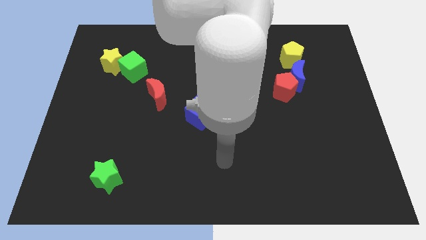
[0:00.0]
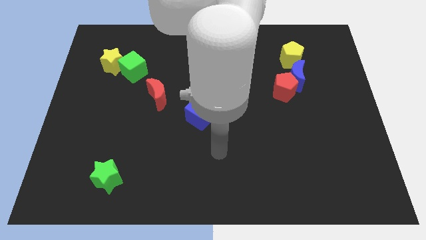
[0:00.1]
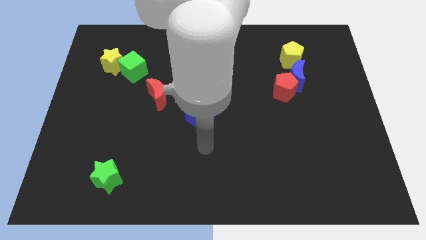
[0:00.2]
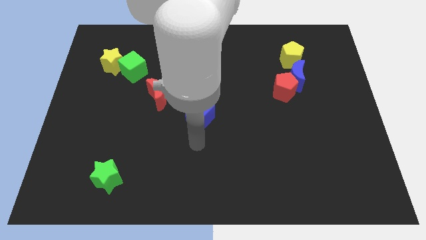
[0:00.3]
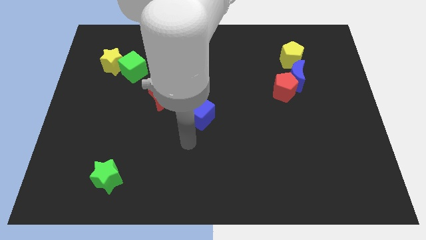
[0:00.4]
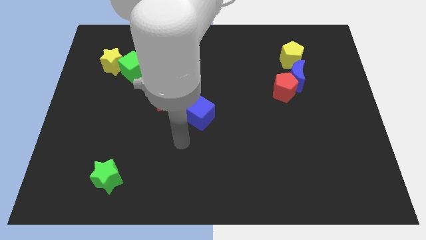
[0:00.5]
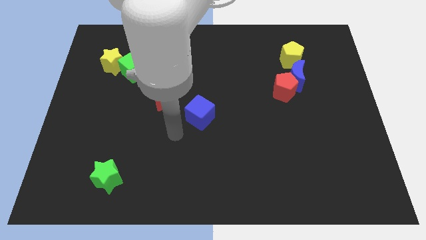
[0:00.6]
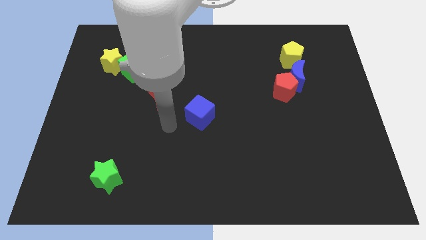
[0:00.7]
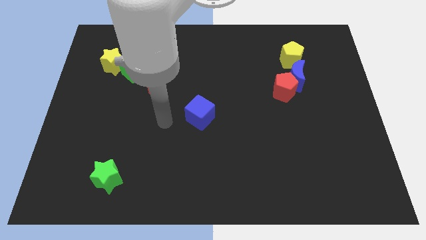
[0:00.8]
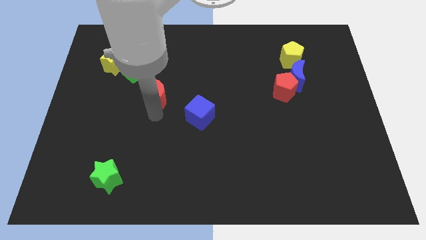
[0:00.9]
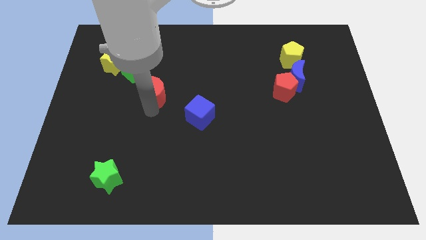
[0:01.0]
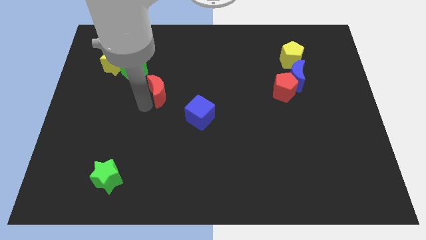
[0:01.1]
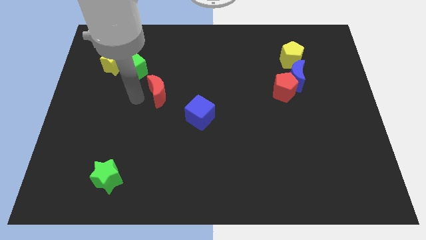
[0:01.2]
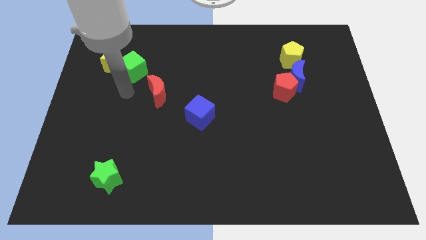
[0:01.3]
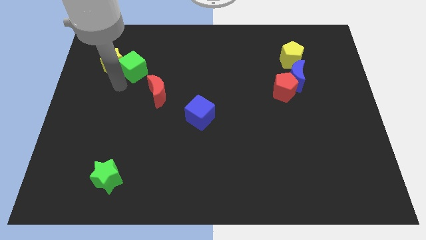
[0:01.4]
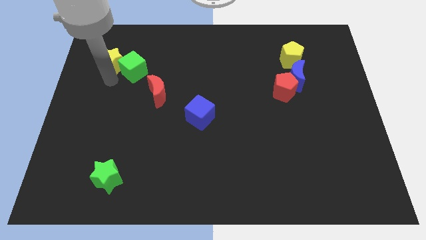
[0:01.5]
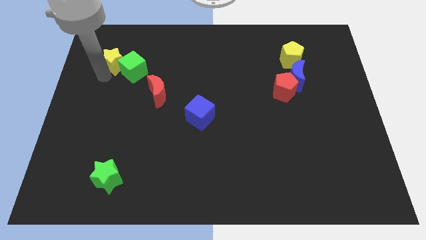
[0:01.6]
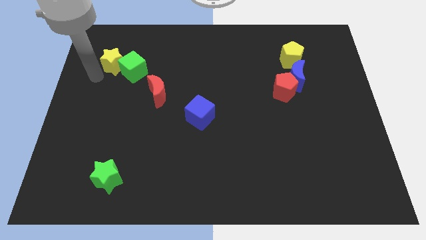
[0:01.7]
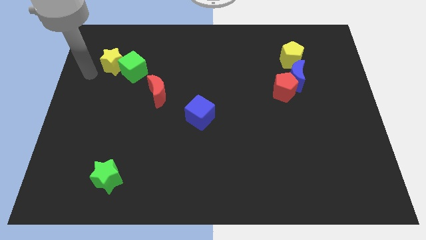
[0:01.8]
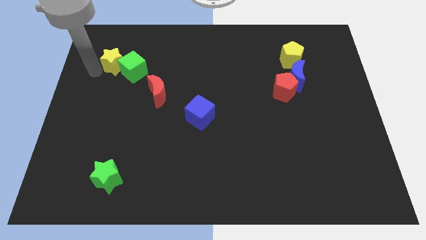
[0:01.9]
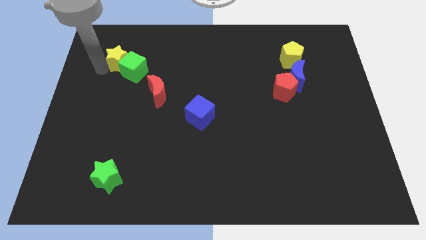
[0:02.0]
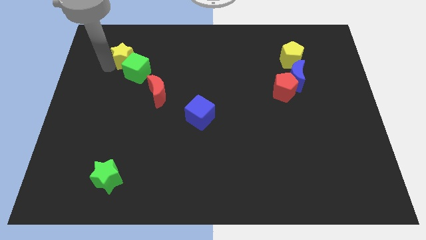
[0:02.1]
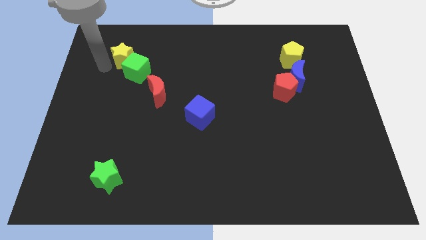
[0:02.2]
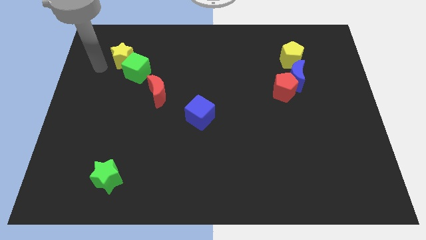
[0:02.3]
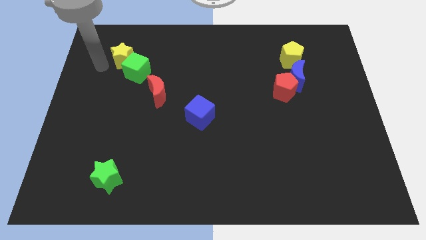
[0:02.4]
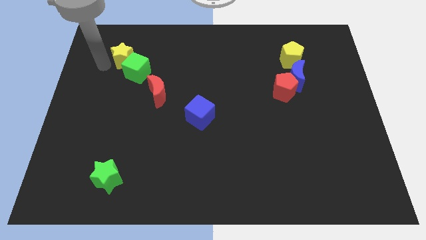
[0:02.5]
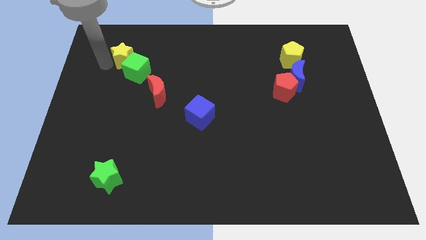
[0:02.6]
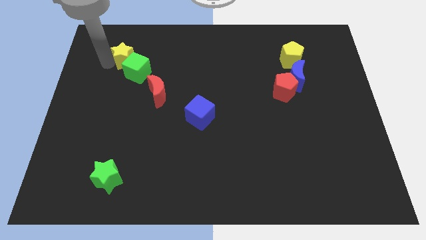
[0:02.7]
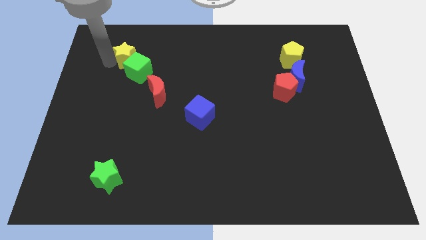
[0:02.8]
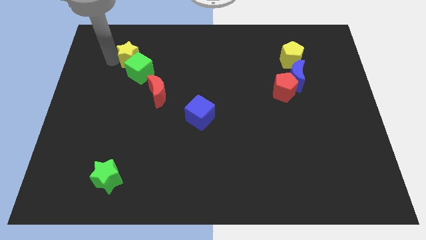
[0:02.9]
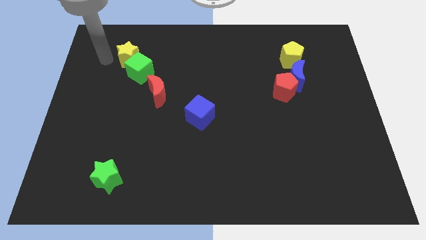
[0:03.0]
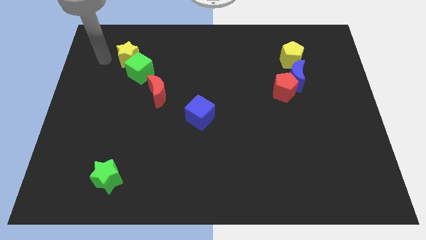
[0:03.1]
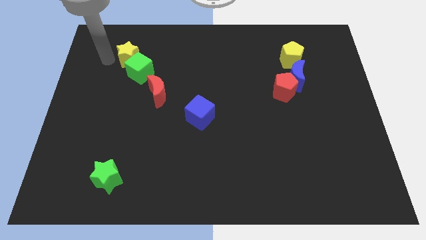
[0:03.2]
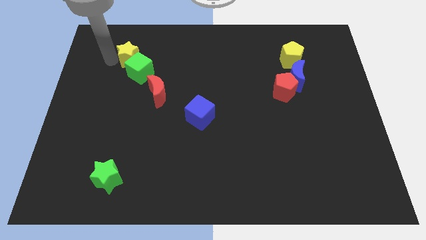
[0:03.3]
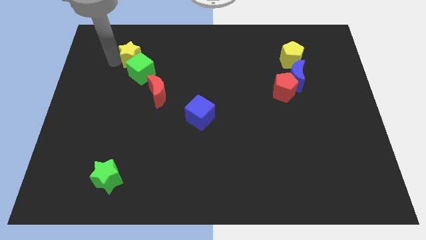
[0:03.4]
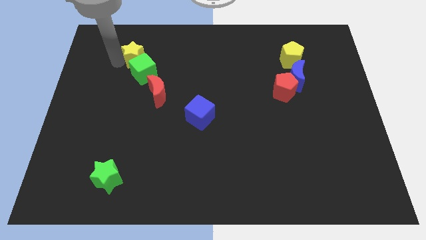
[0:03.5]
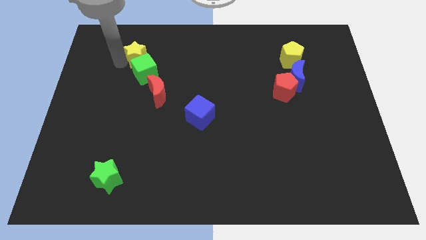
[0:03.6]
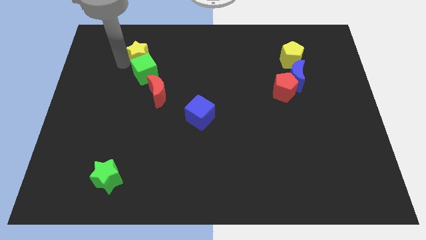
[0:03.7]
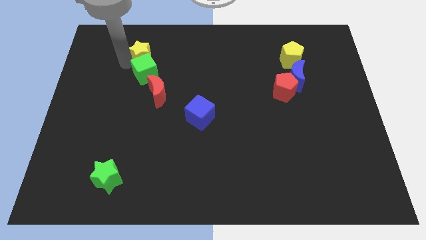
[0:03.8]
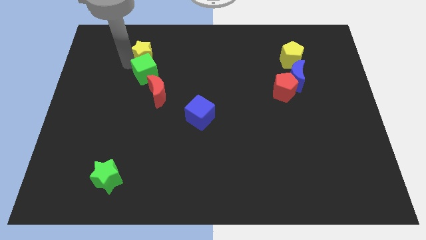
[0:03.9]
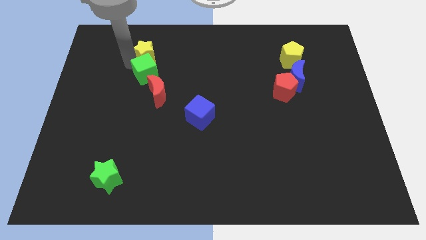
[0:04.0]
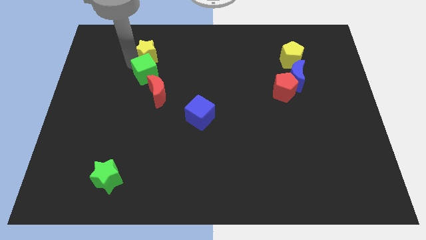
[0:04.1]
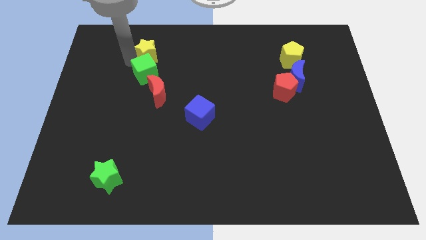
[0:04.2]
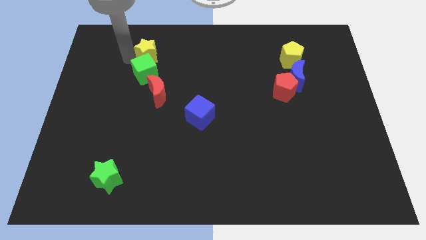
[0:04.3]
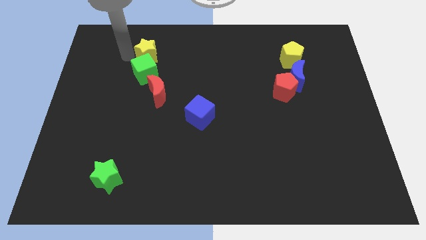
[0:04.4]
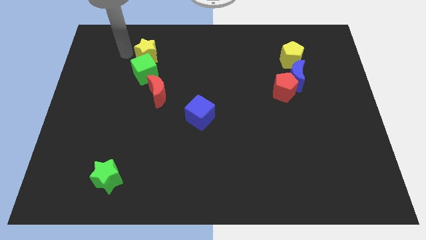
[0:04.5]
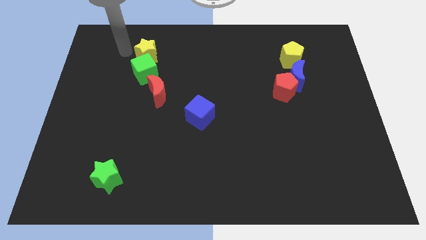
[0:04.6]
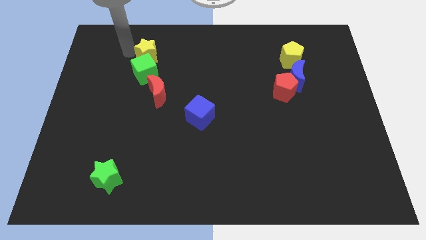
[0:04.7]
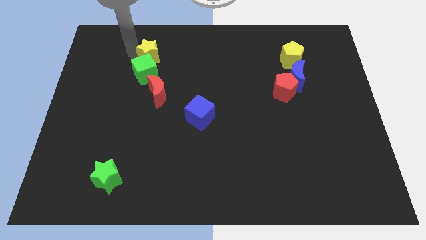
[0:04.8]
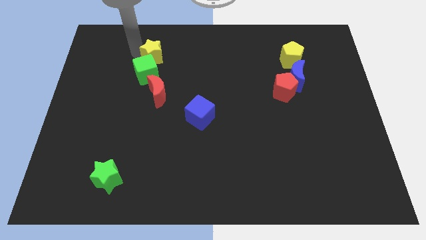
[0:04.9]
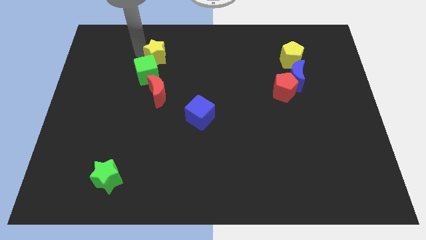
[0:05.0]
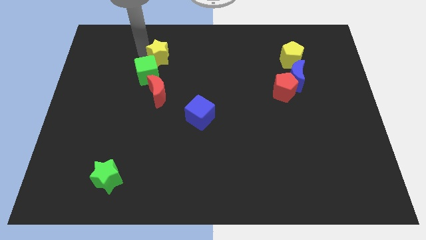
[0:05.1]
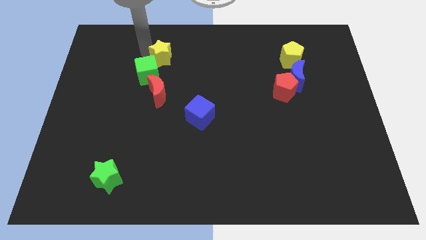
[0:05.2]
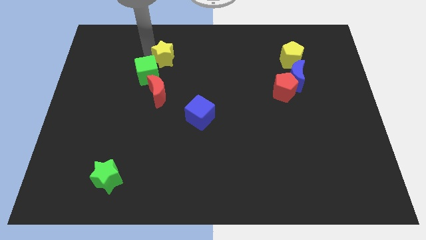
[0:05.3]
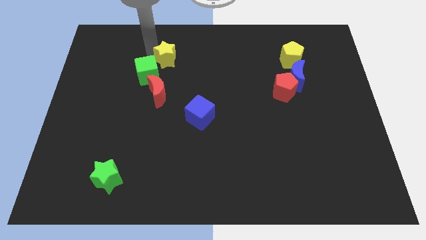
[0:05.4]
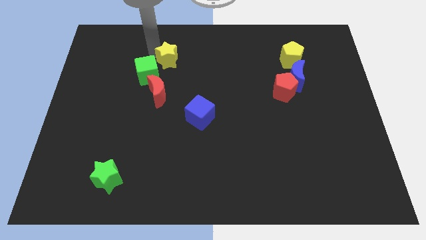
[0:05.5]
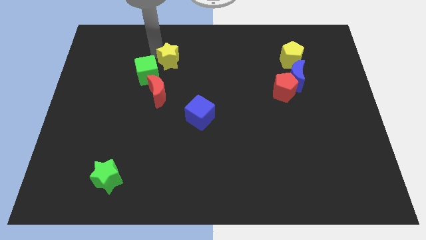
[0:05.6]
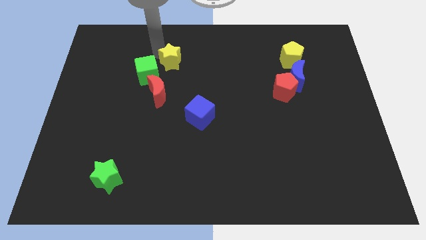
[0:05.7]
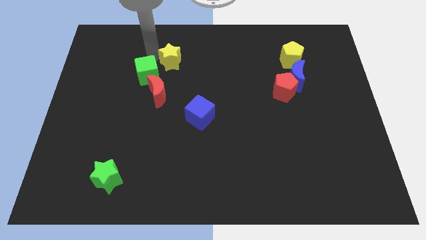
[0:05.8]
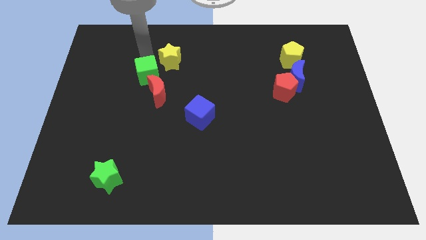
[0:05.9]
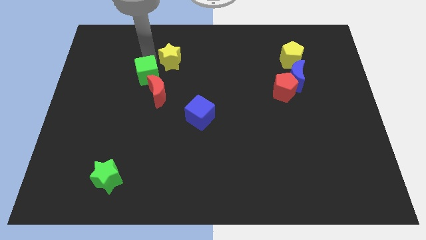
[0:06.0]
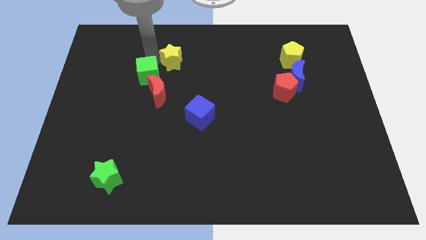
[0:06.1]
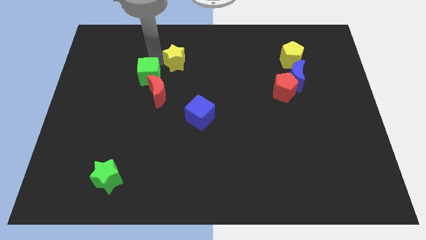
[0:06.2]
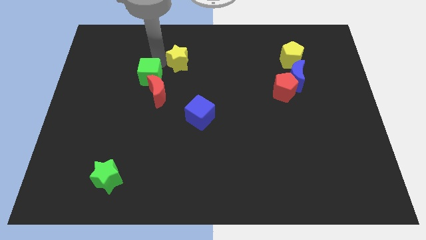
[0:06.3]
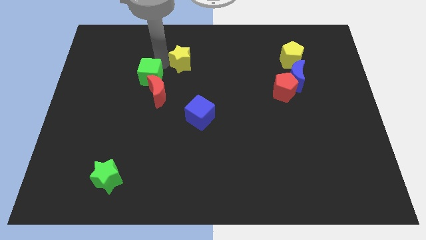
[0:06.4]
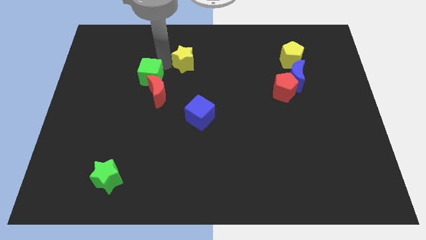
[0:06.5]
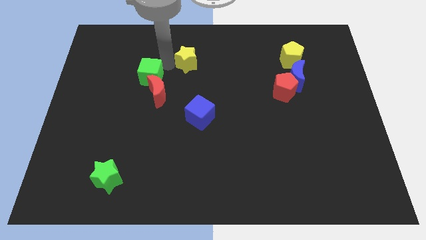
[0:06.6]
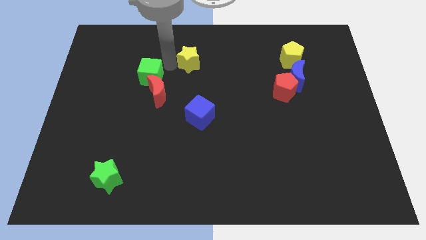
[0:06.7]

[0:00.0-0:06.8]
slide the yellow star to the right

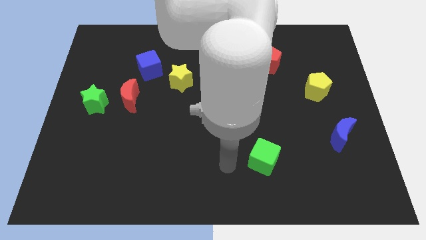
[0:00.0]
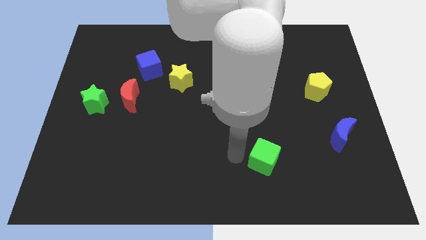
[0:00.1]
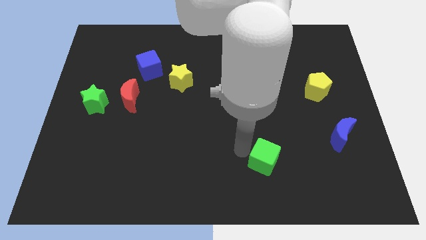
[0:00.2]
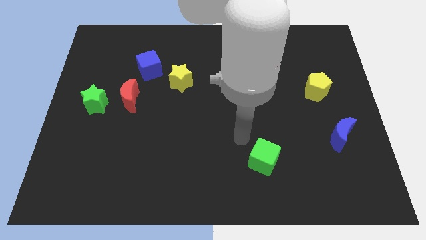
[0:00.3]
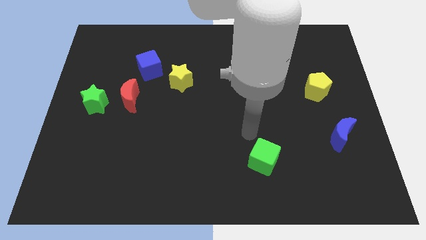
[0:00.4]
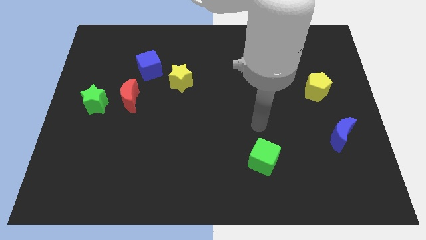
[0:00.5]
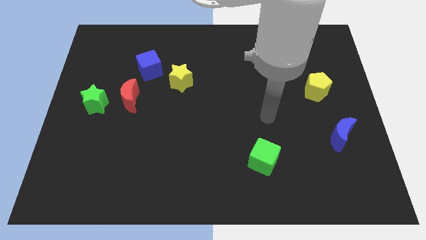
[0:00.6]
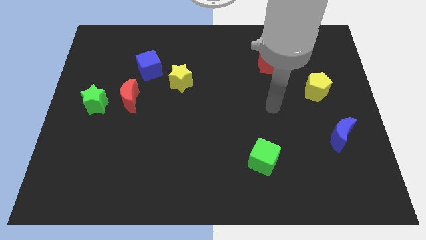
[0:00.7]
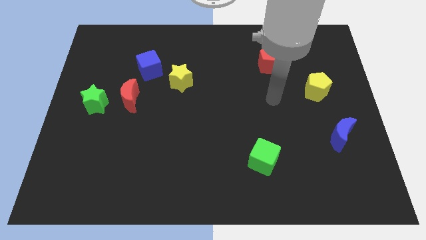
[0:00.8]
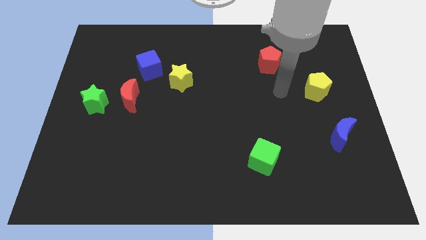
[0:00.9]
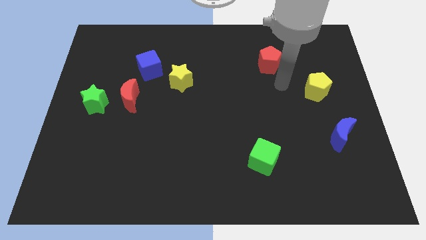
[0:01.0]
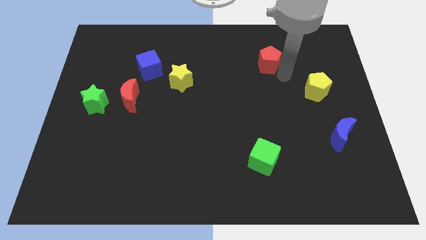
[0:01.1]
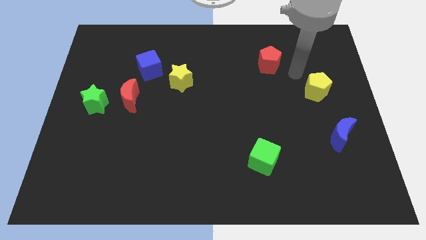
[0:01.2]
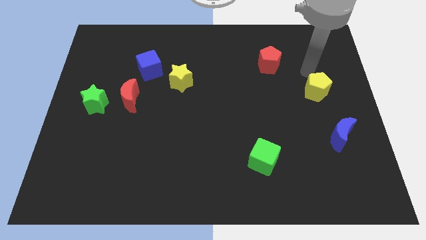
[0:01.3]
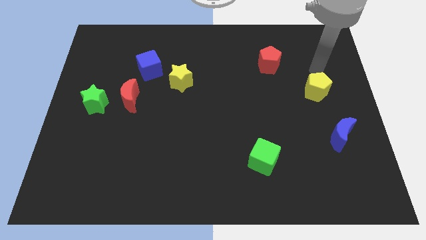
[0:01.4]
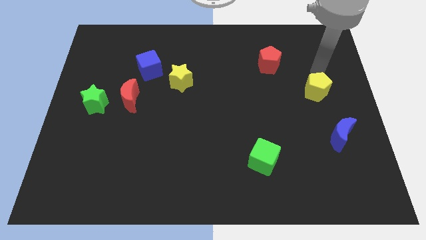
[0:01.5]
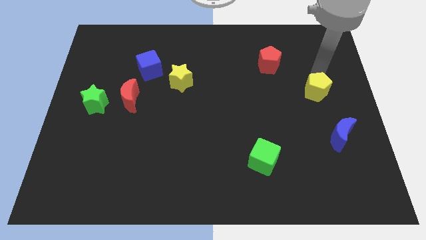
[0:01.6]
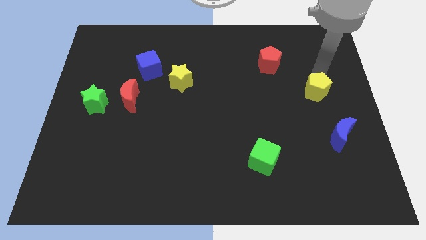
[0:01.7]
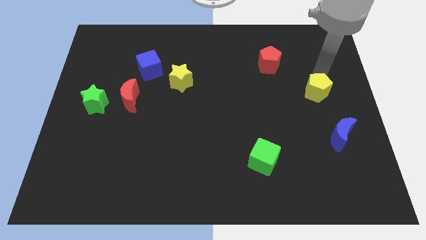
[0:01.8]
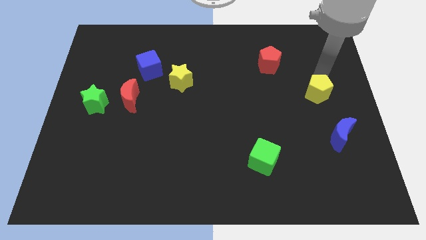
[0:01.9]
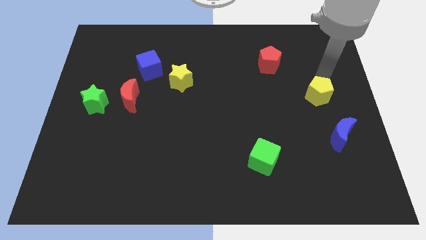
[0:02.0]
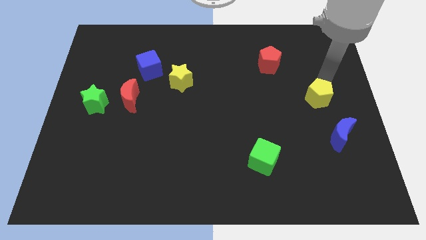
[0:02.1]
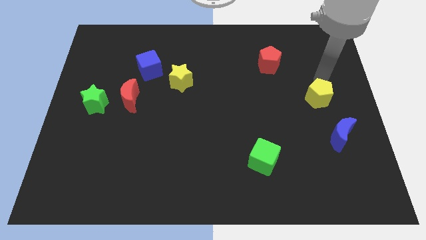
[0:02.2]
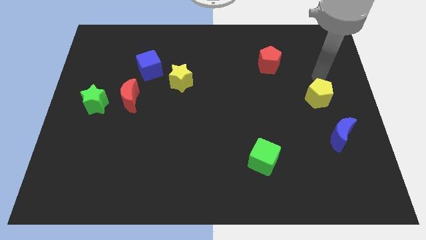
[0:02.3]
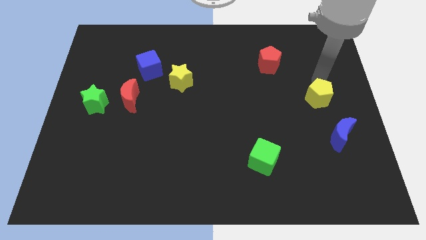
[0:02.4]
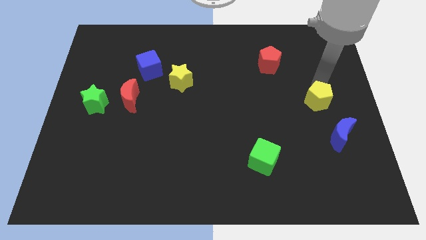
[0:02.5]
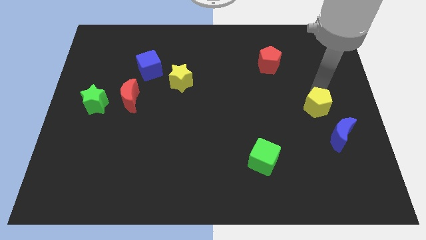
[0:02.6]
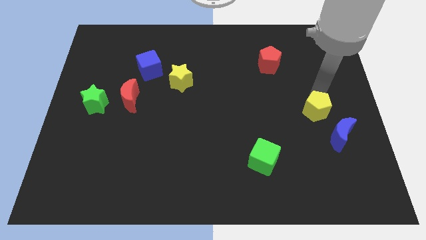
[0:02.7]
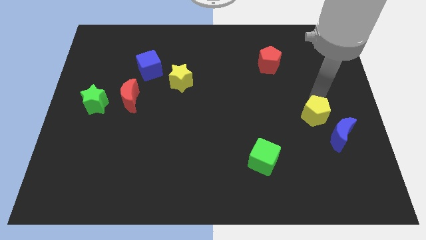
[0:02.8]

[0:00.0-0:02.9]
slightly push the yellow pentagon downwards
